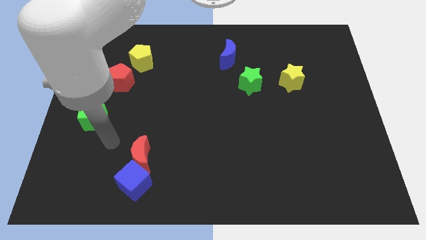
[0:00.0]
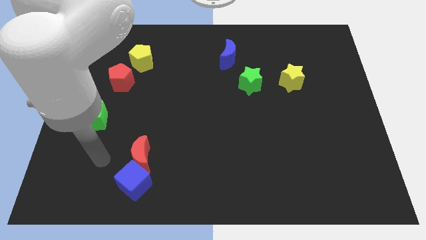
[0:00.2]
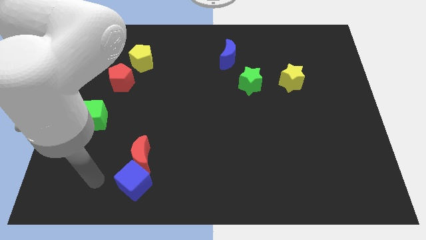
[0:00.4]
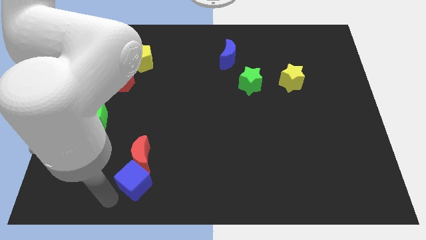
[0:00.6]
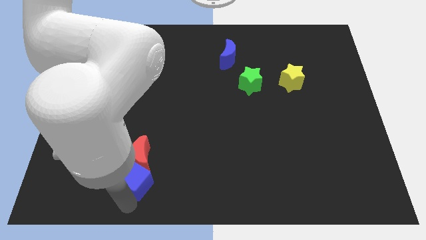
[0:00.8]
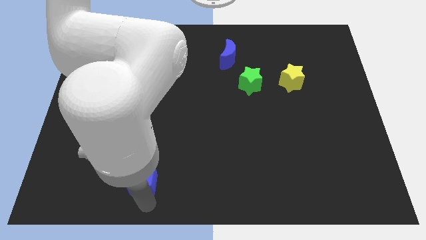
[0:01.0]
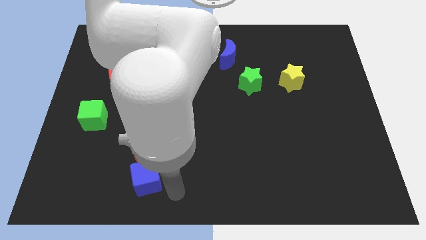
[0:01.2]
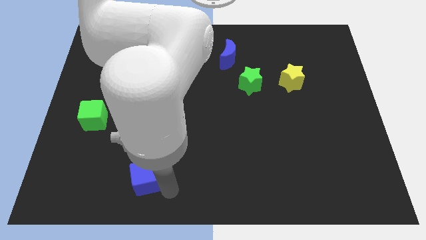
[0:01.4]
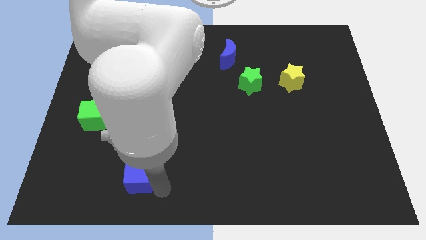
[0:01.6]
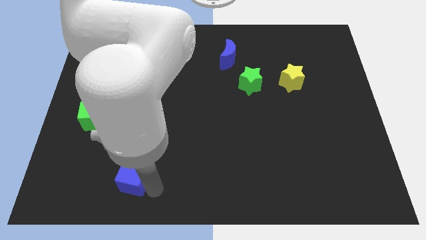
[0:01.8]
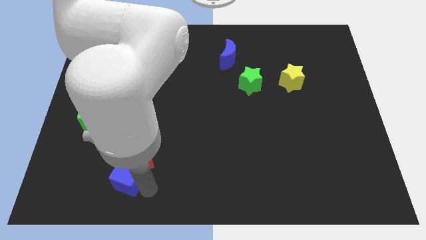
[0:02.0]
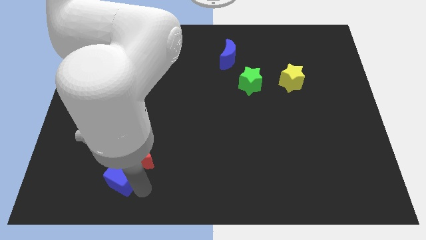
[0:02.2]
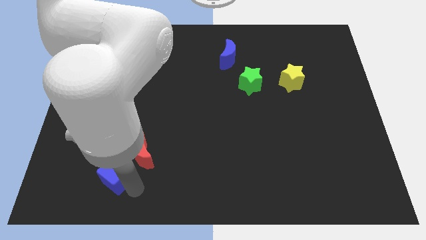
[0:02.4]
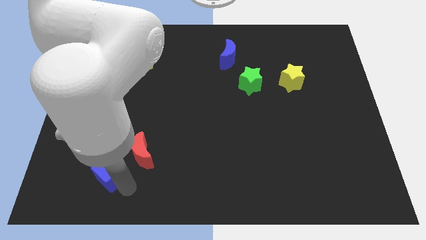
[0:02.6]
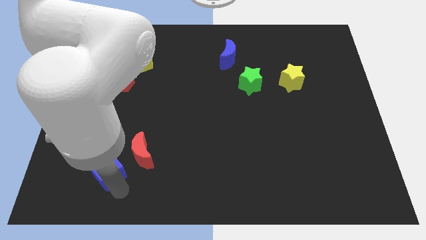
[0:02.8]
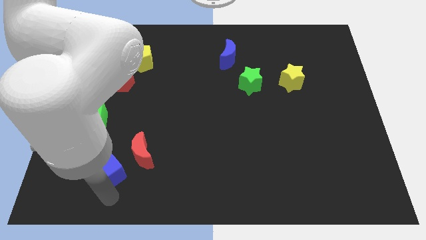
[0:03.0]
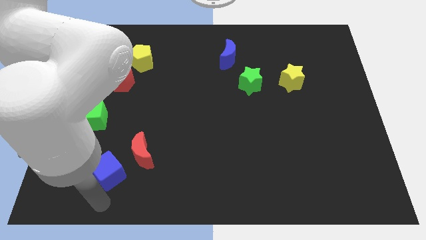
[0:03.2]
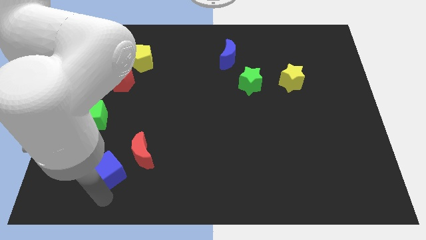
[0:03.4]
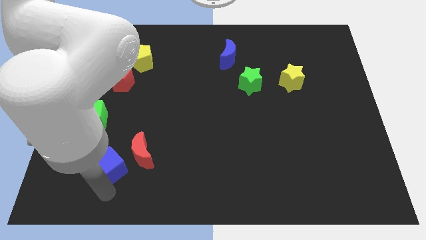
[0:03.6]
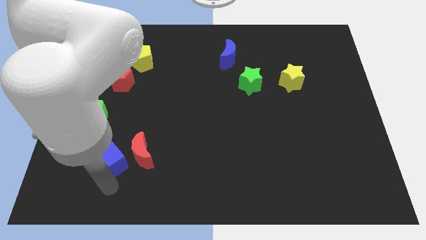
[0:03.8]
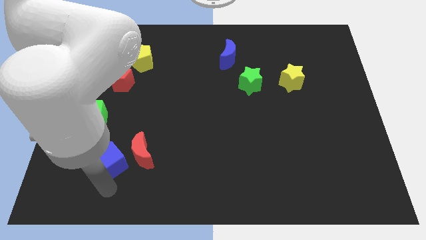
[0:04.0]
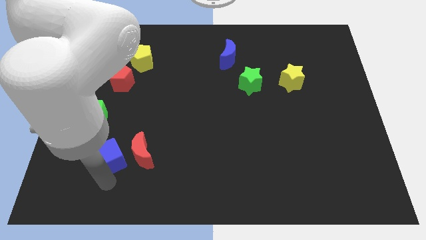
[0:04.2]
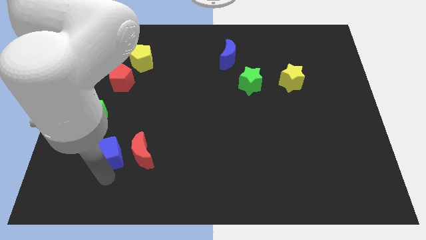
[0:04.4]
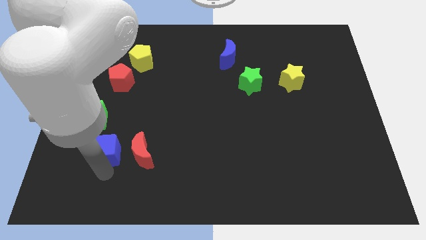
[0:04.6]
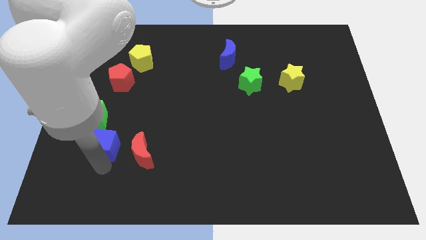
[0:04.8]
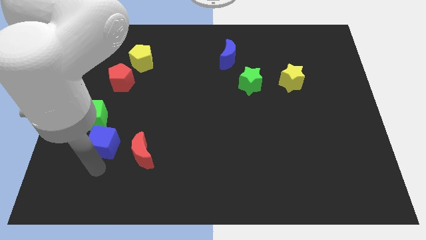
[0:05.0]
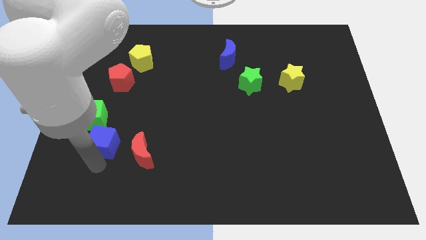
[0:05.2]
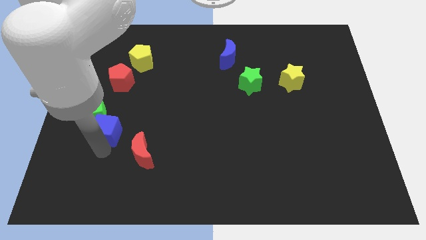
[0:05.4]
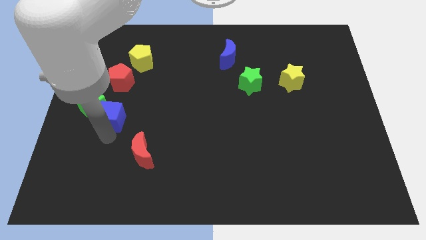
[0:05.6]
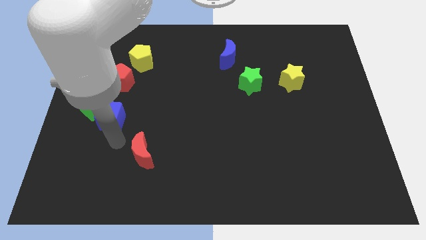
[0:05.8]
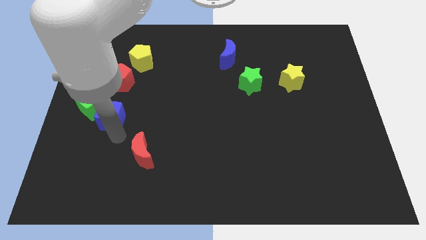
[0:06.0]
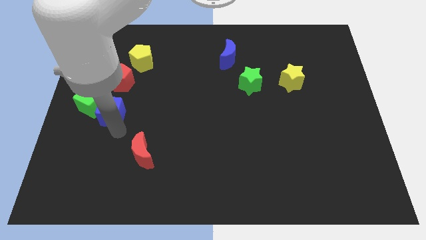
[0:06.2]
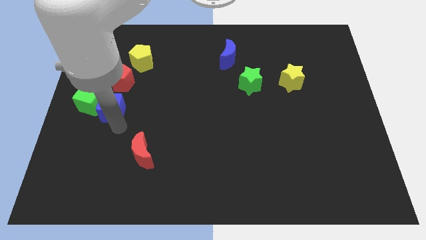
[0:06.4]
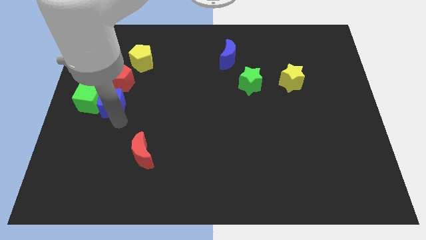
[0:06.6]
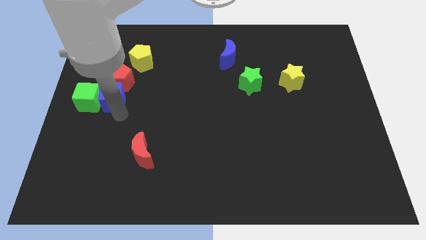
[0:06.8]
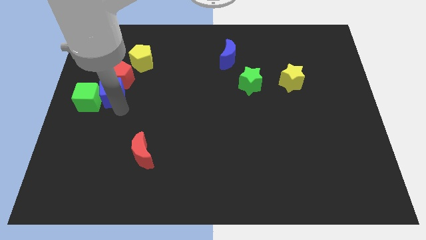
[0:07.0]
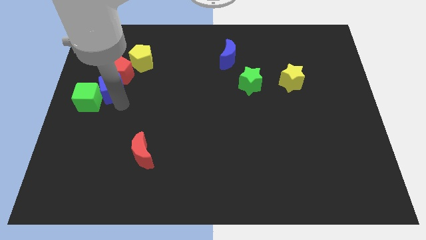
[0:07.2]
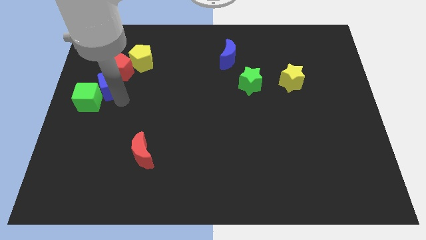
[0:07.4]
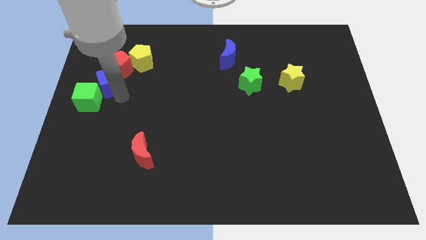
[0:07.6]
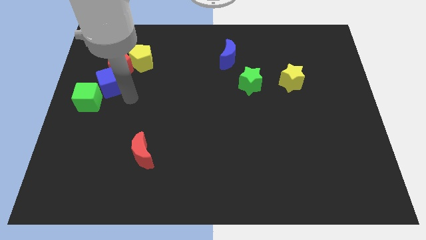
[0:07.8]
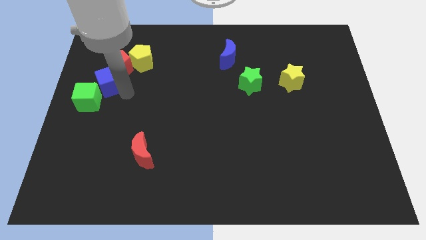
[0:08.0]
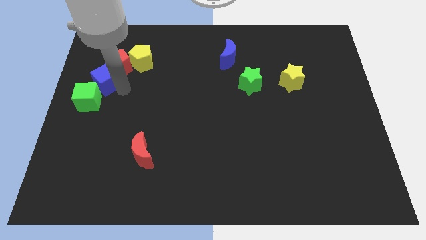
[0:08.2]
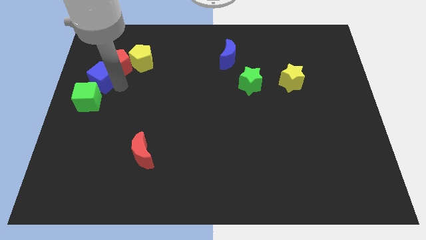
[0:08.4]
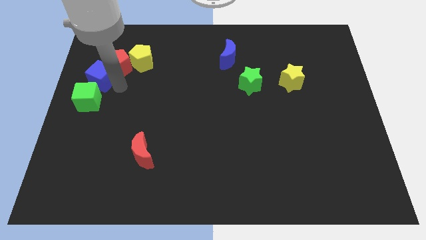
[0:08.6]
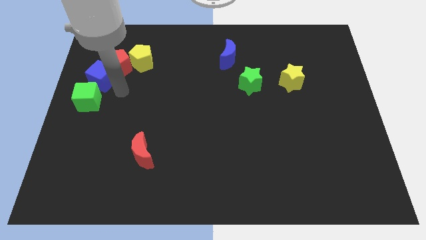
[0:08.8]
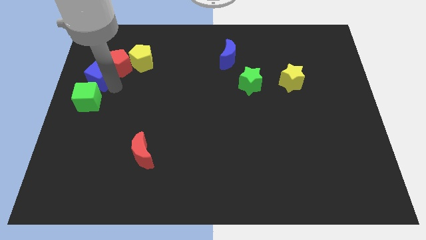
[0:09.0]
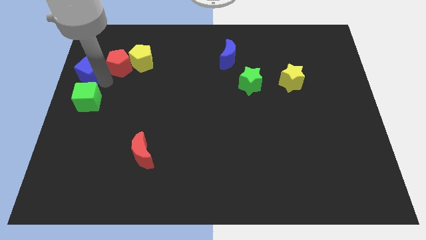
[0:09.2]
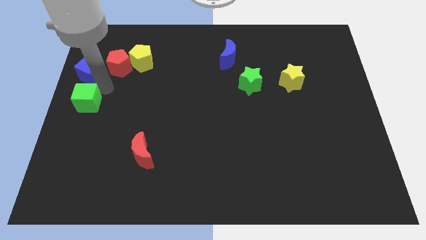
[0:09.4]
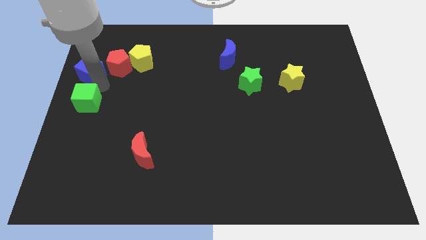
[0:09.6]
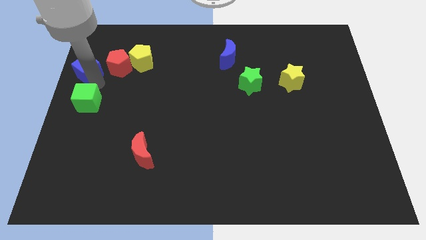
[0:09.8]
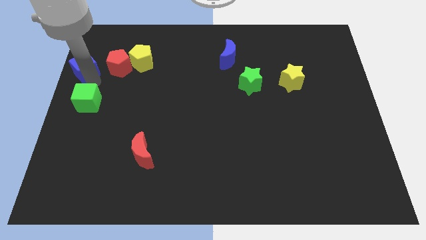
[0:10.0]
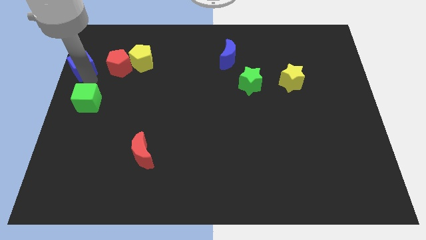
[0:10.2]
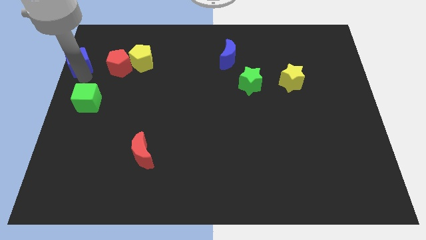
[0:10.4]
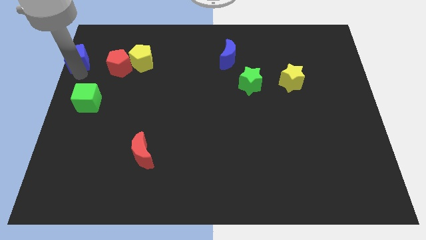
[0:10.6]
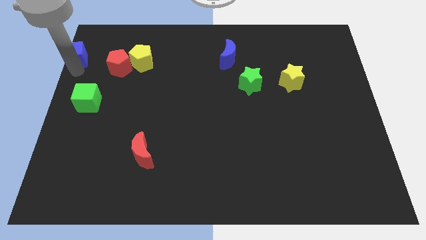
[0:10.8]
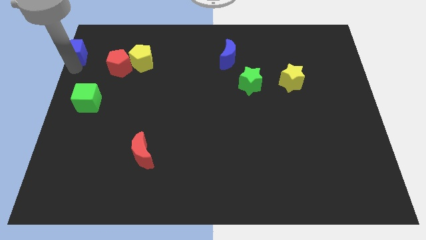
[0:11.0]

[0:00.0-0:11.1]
put the blue cube to the top left corner

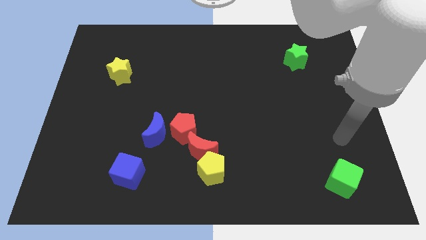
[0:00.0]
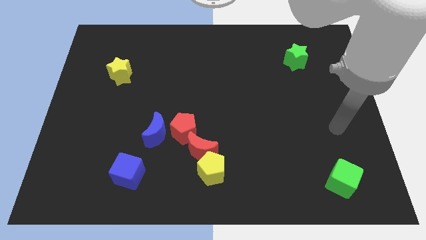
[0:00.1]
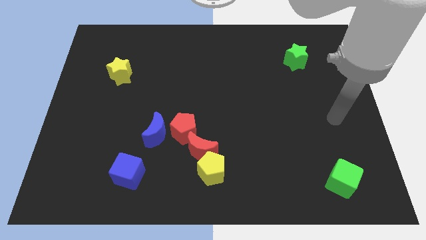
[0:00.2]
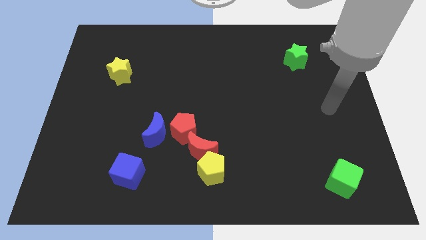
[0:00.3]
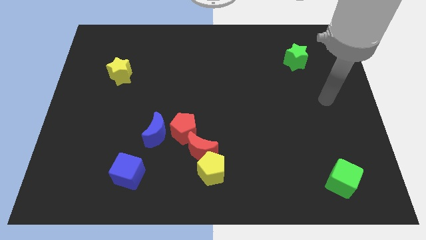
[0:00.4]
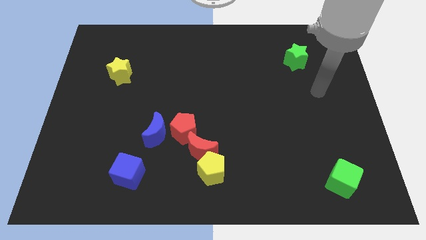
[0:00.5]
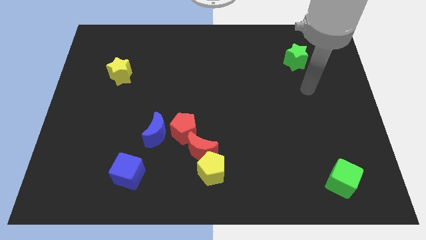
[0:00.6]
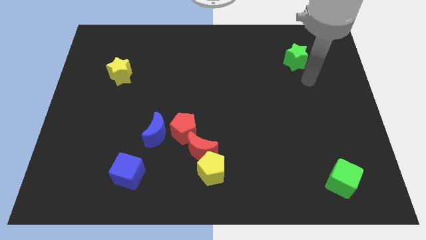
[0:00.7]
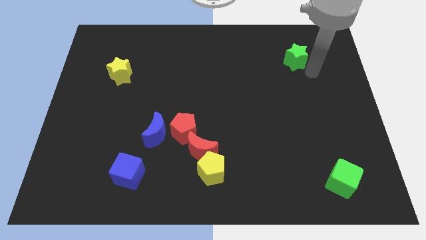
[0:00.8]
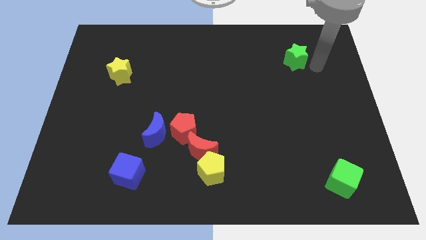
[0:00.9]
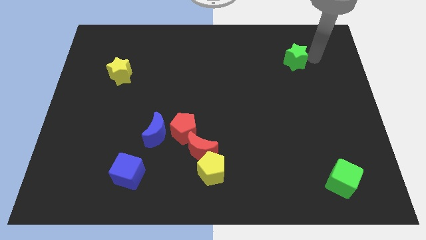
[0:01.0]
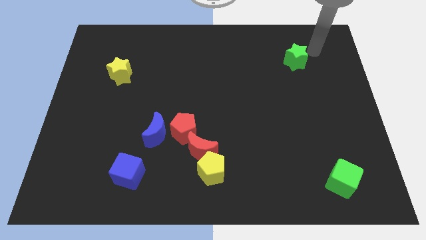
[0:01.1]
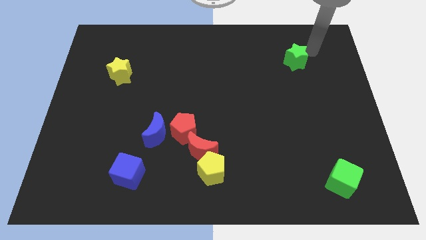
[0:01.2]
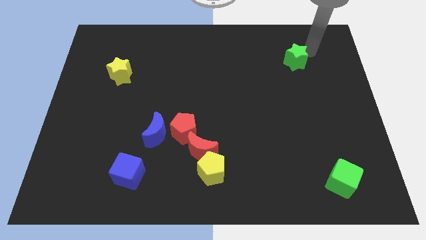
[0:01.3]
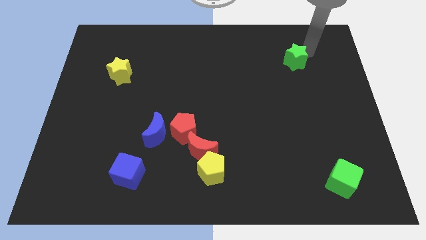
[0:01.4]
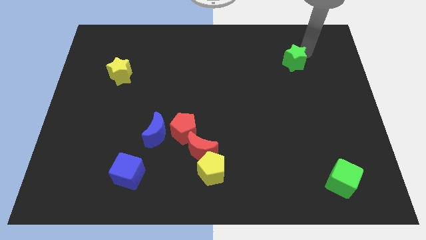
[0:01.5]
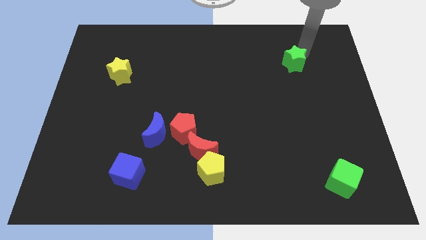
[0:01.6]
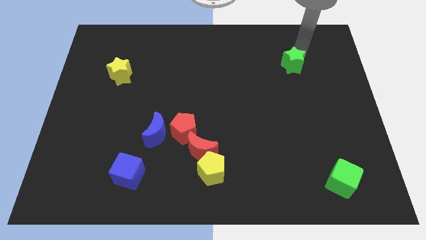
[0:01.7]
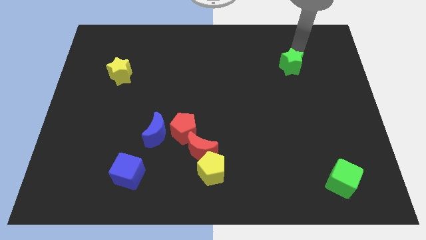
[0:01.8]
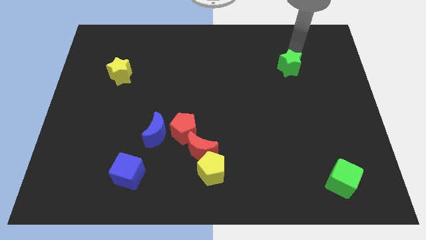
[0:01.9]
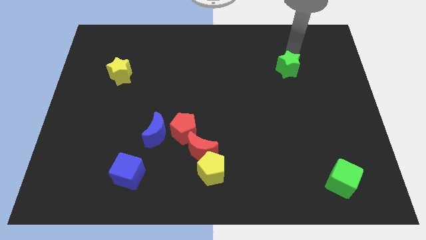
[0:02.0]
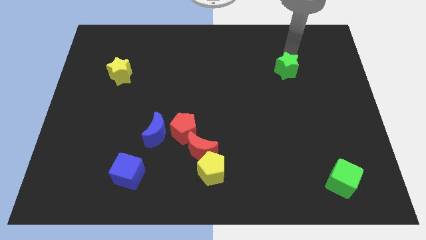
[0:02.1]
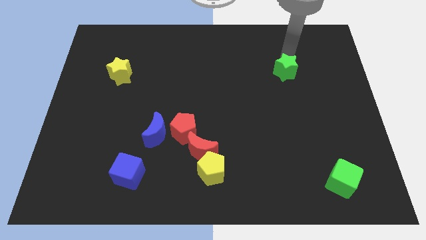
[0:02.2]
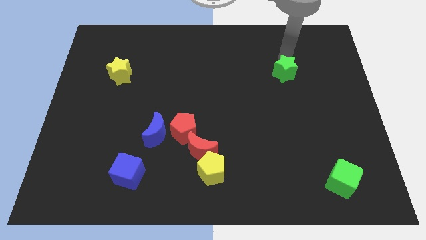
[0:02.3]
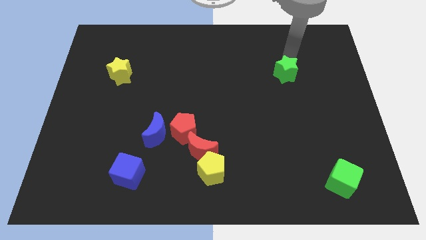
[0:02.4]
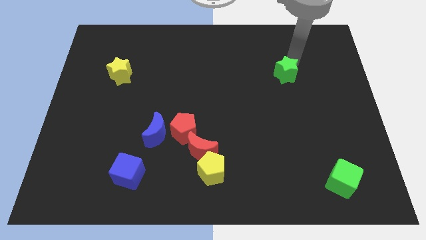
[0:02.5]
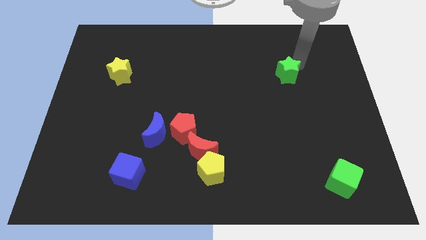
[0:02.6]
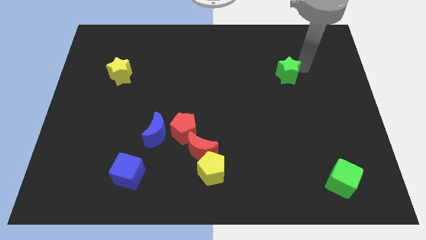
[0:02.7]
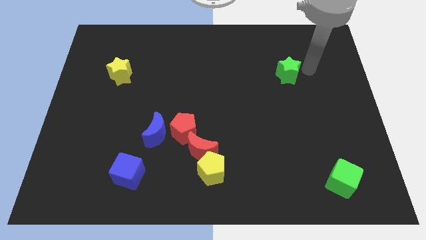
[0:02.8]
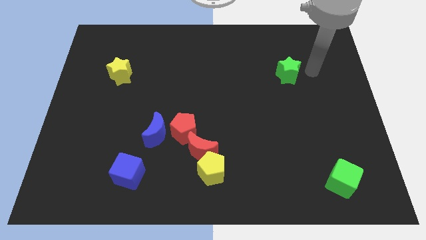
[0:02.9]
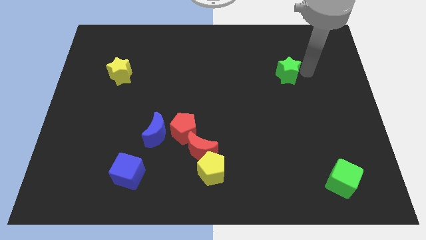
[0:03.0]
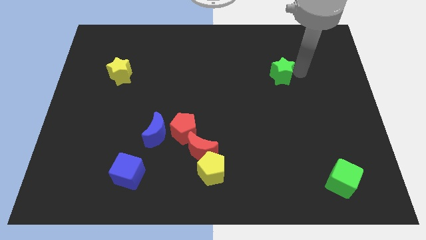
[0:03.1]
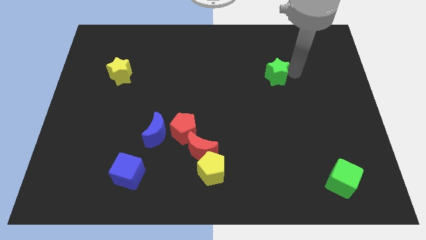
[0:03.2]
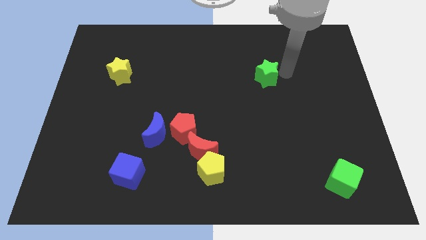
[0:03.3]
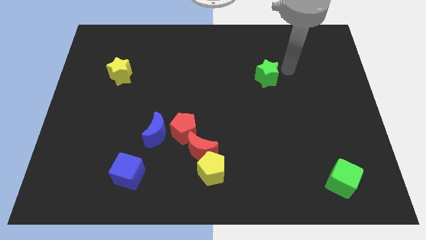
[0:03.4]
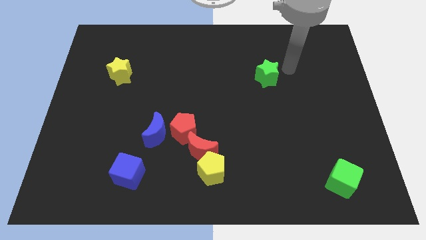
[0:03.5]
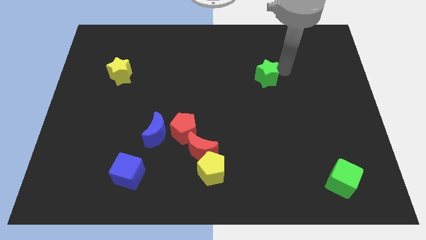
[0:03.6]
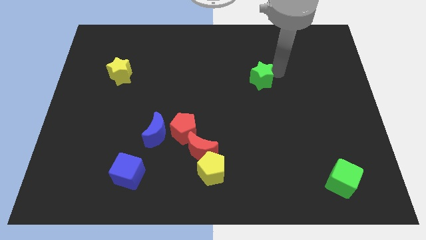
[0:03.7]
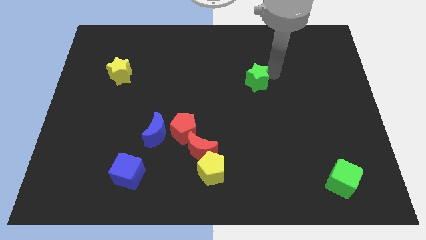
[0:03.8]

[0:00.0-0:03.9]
push the green star to the middle
